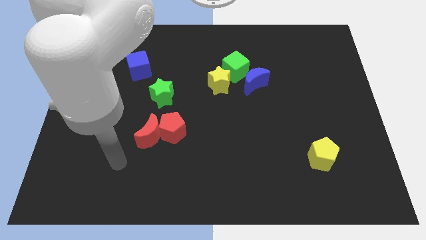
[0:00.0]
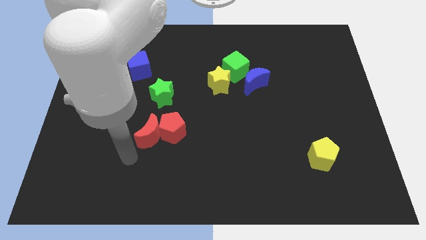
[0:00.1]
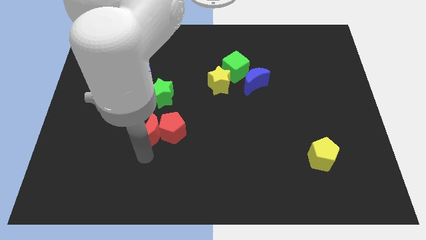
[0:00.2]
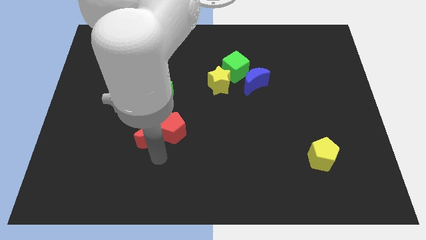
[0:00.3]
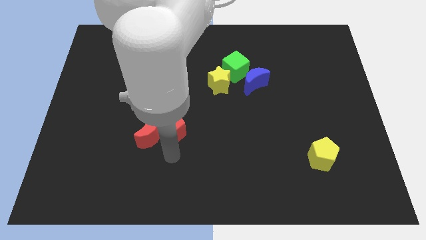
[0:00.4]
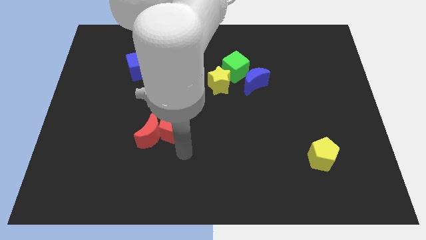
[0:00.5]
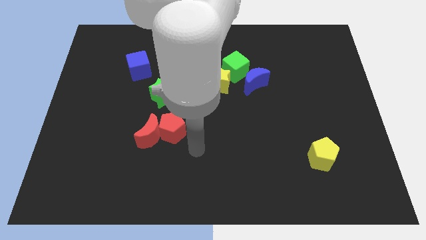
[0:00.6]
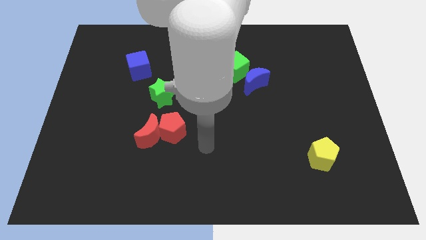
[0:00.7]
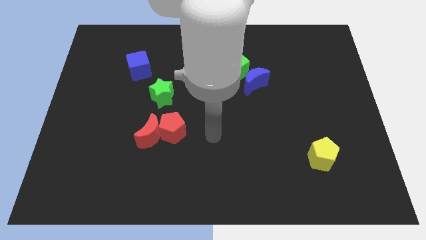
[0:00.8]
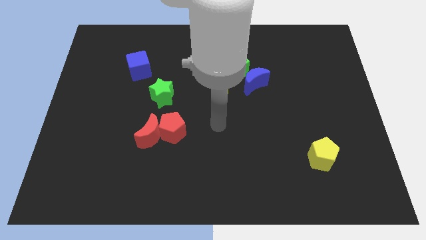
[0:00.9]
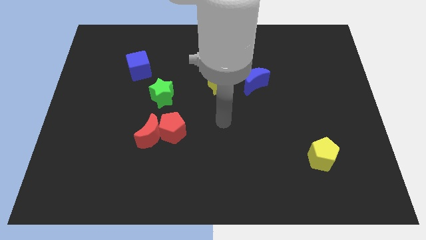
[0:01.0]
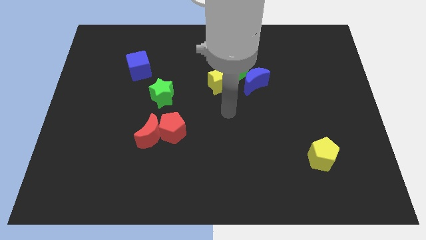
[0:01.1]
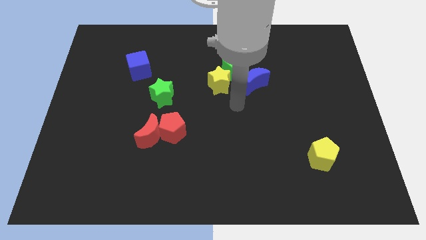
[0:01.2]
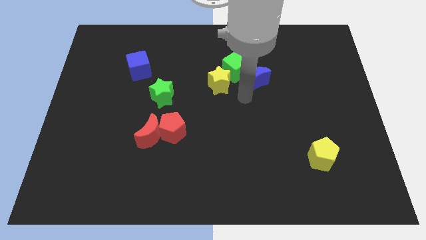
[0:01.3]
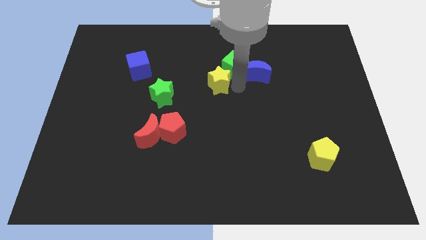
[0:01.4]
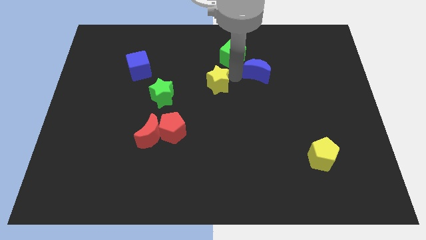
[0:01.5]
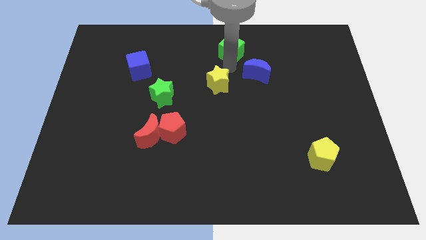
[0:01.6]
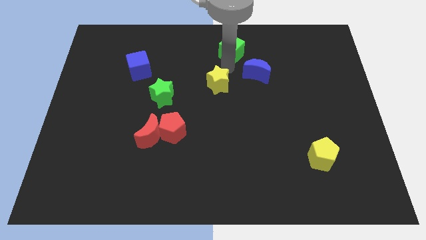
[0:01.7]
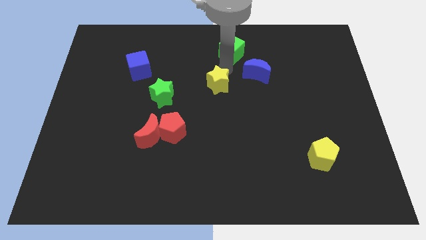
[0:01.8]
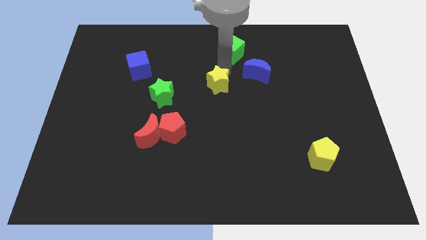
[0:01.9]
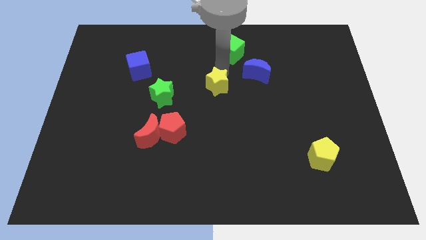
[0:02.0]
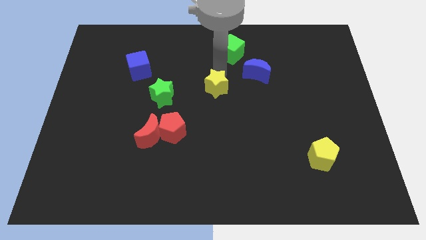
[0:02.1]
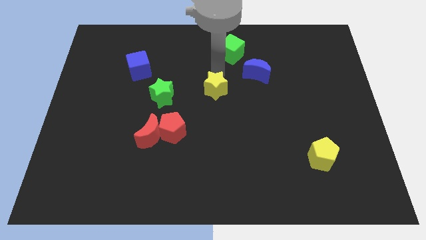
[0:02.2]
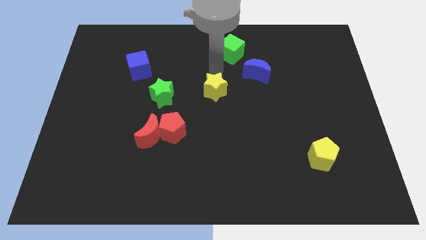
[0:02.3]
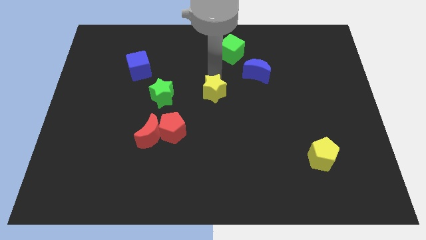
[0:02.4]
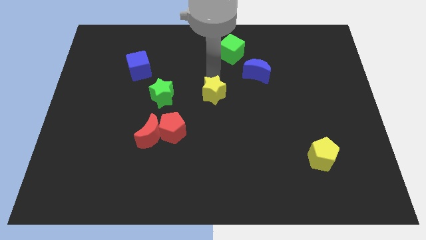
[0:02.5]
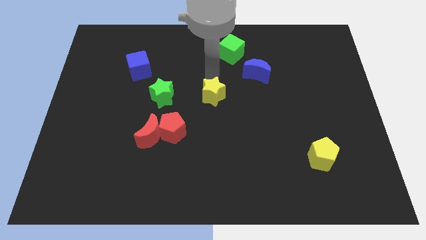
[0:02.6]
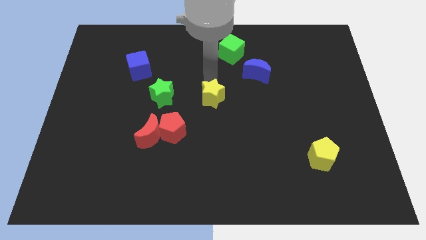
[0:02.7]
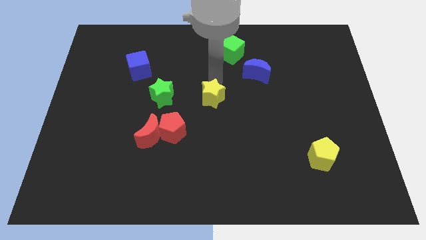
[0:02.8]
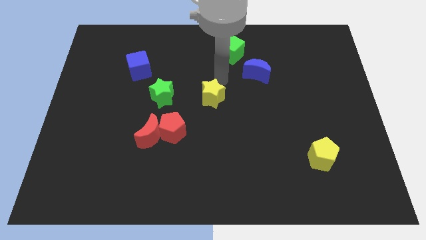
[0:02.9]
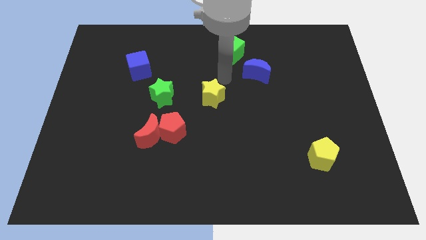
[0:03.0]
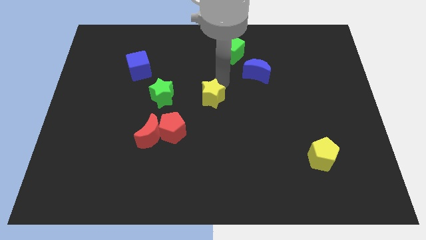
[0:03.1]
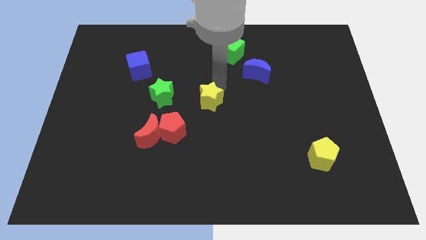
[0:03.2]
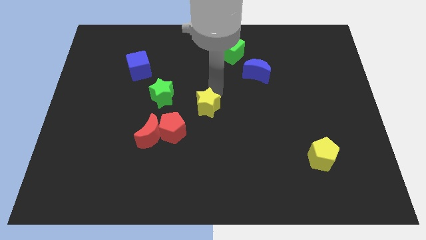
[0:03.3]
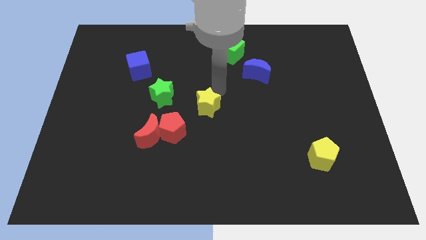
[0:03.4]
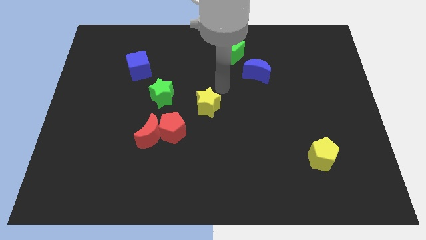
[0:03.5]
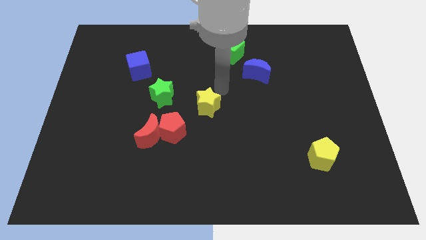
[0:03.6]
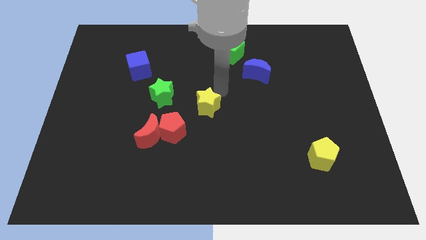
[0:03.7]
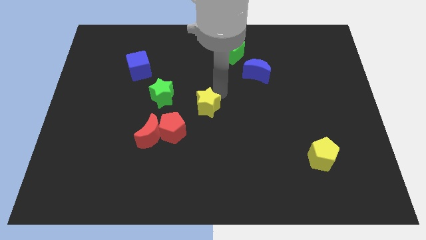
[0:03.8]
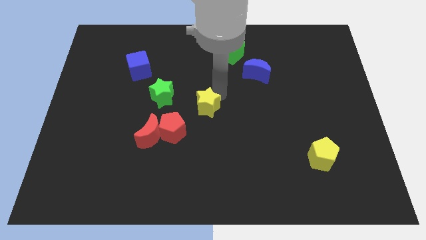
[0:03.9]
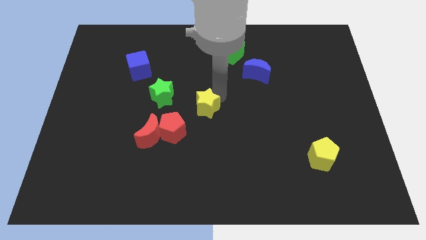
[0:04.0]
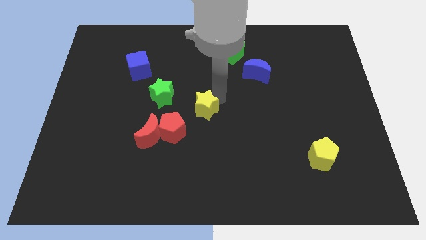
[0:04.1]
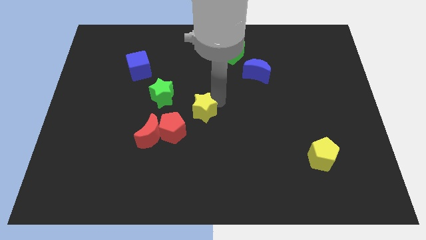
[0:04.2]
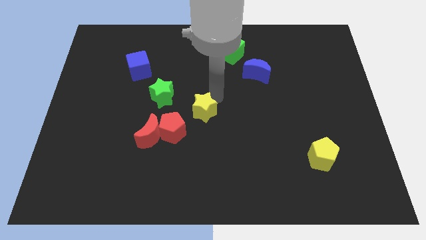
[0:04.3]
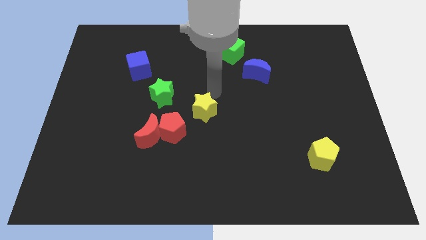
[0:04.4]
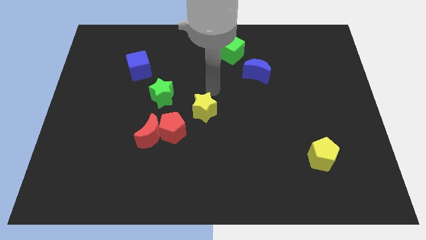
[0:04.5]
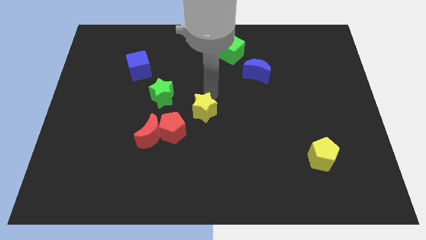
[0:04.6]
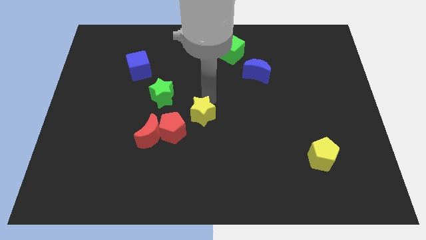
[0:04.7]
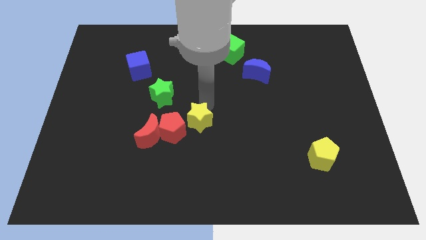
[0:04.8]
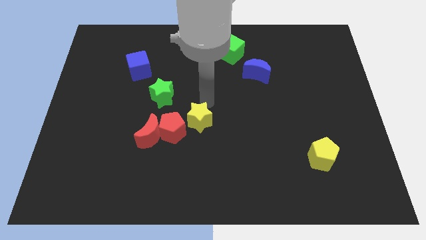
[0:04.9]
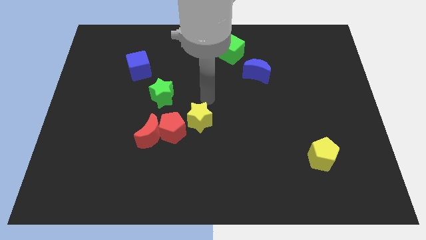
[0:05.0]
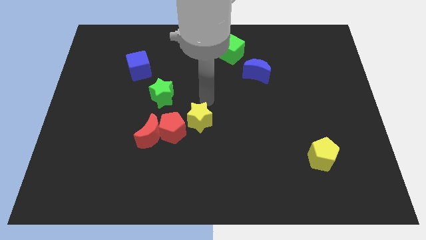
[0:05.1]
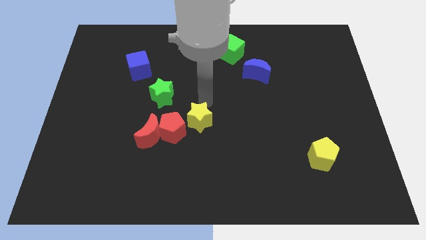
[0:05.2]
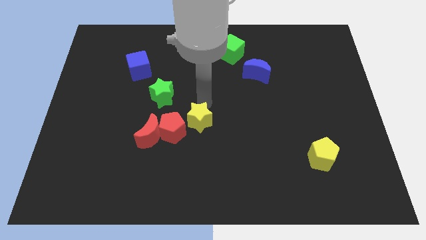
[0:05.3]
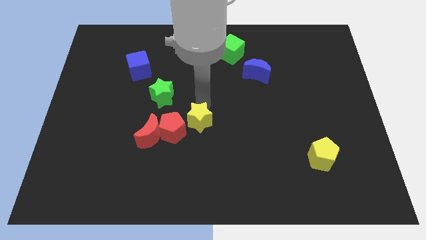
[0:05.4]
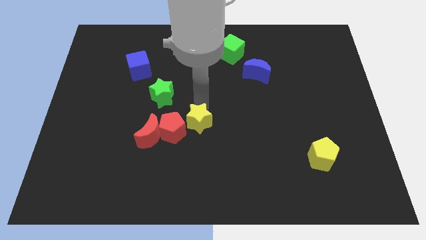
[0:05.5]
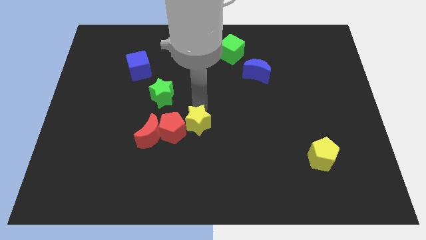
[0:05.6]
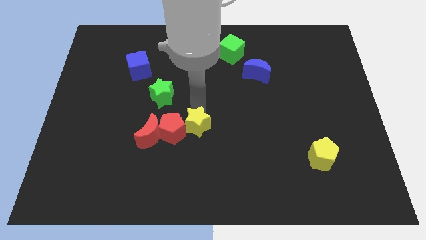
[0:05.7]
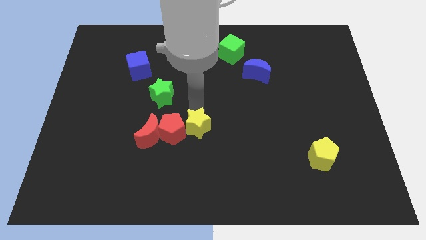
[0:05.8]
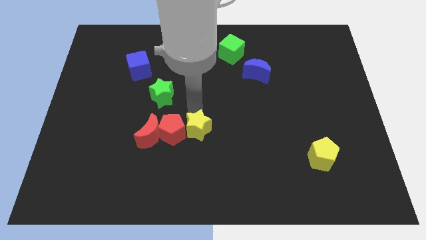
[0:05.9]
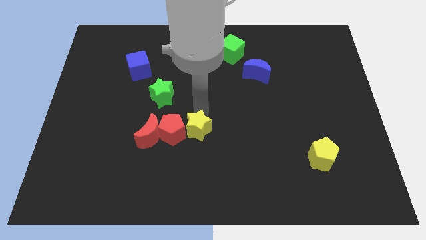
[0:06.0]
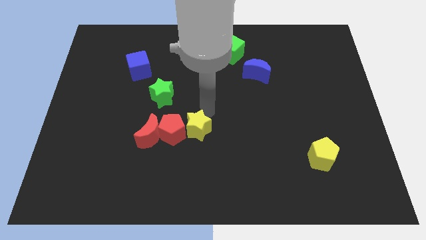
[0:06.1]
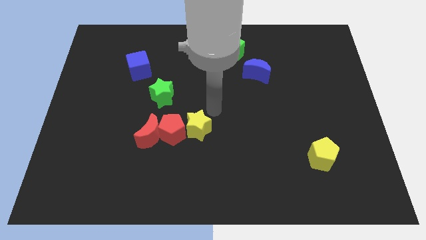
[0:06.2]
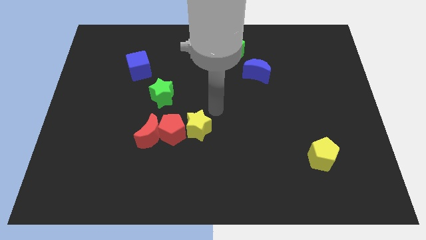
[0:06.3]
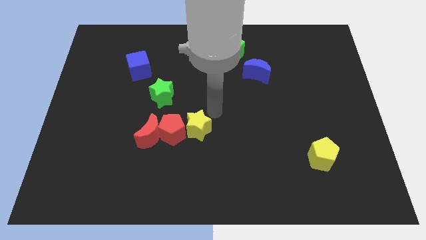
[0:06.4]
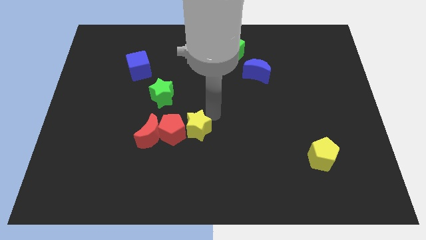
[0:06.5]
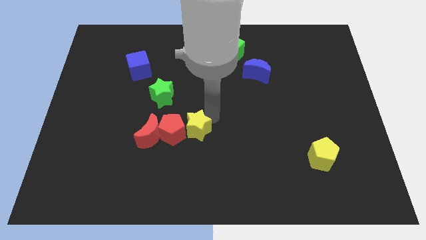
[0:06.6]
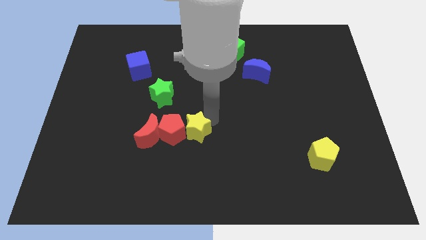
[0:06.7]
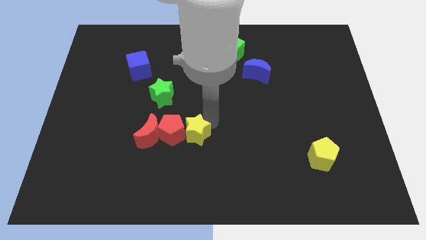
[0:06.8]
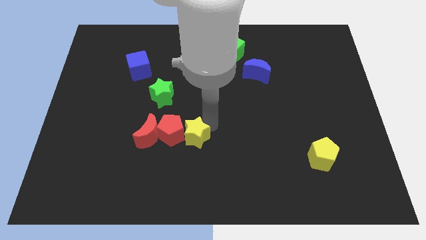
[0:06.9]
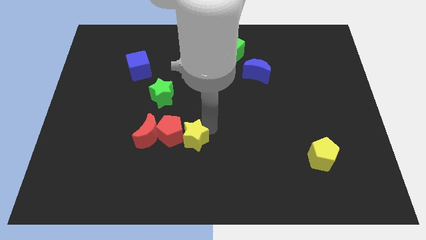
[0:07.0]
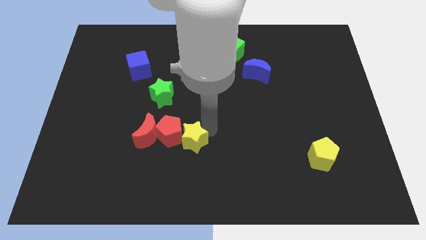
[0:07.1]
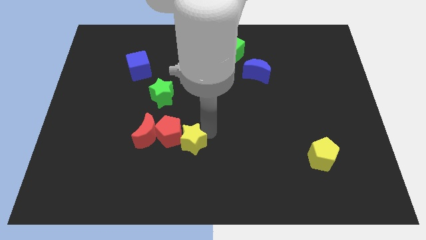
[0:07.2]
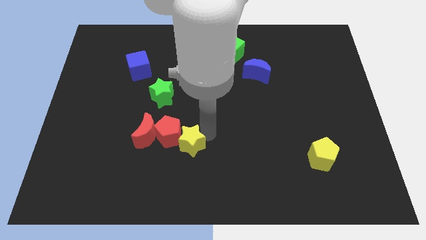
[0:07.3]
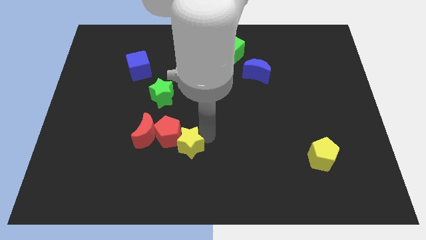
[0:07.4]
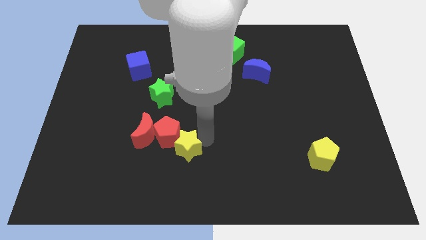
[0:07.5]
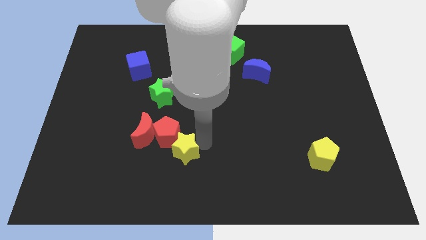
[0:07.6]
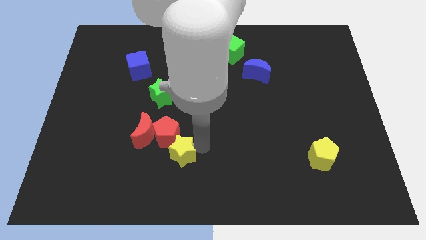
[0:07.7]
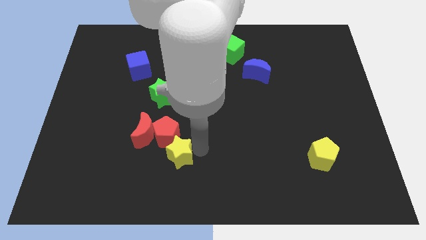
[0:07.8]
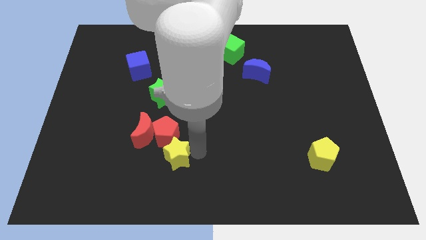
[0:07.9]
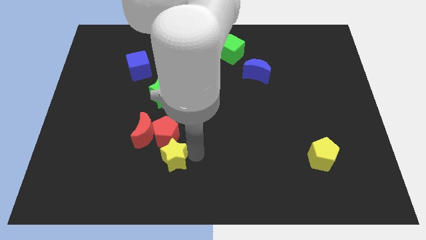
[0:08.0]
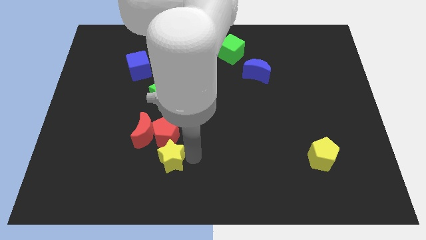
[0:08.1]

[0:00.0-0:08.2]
move the yellow star diagonally downwards and to the left

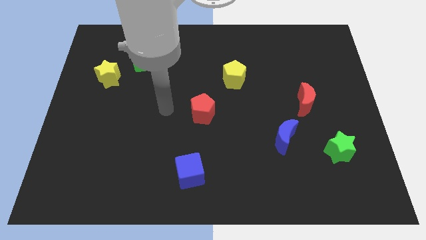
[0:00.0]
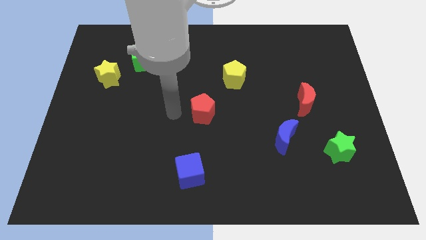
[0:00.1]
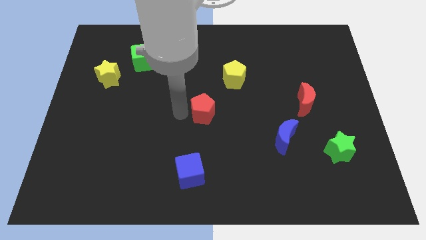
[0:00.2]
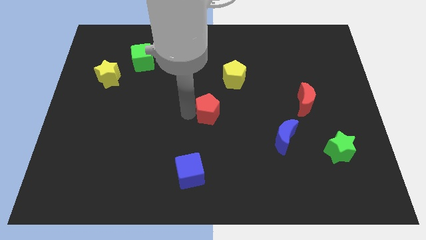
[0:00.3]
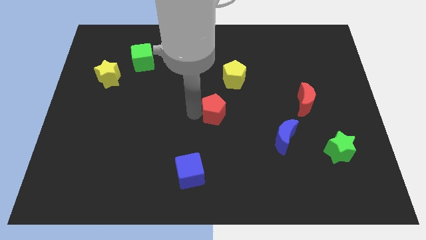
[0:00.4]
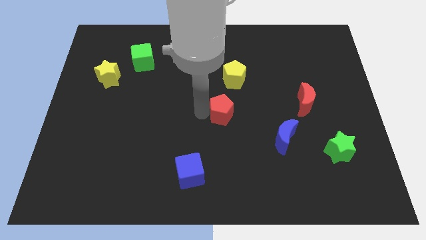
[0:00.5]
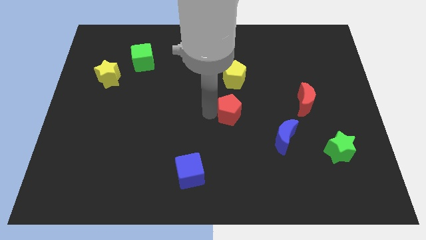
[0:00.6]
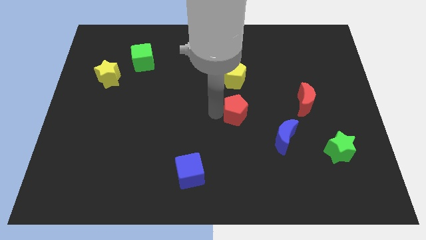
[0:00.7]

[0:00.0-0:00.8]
slightly slide the red pentagon to the right
